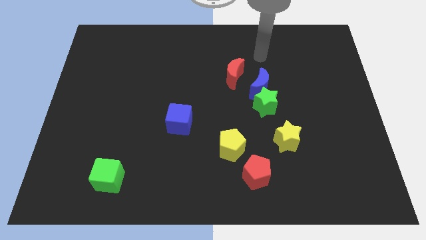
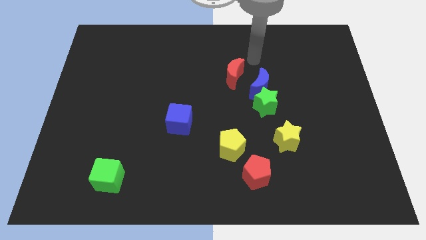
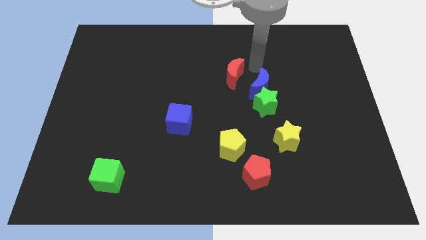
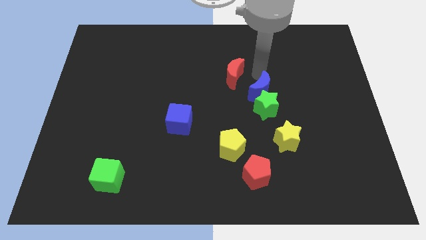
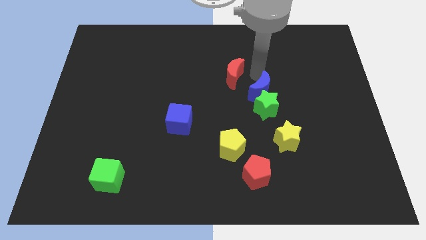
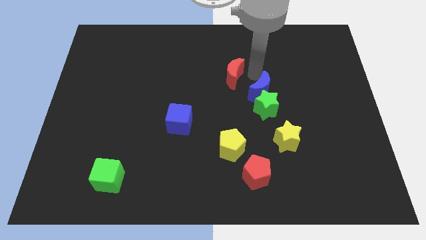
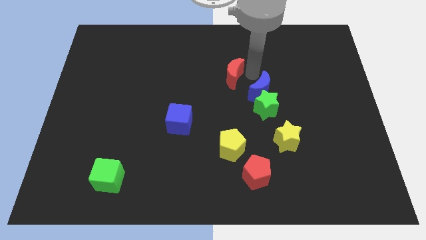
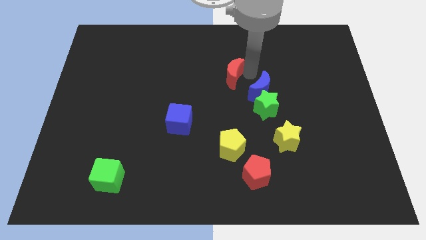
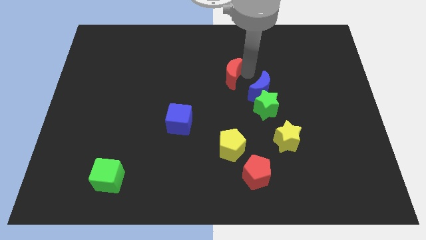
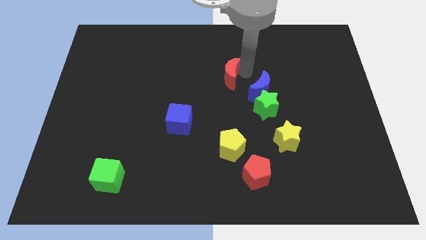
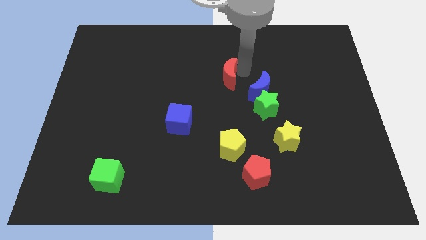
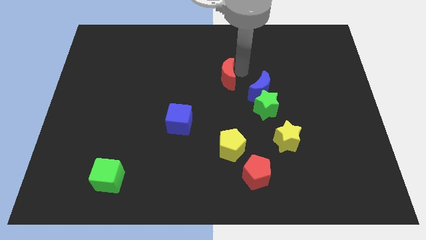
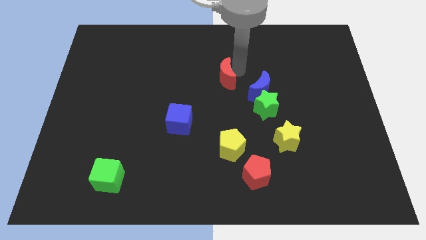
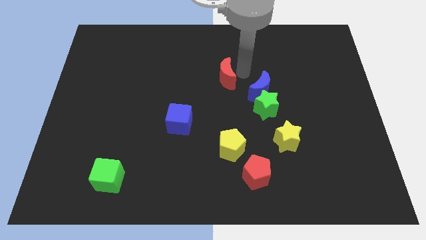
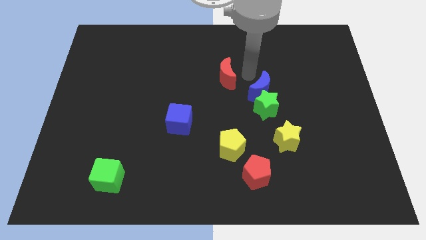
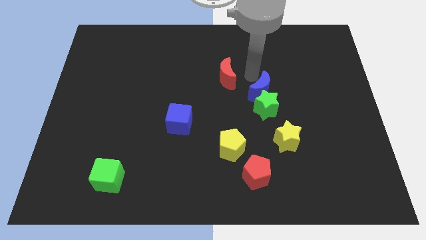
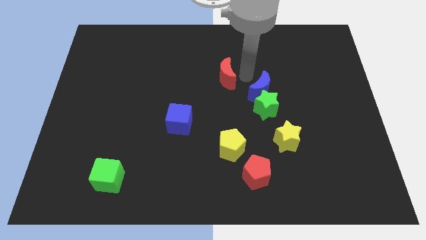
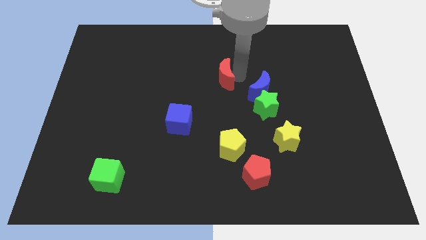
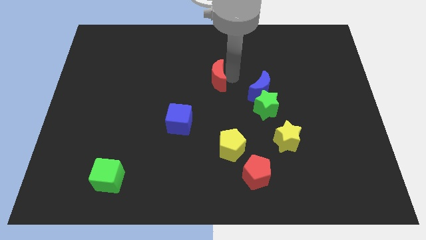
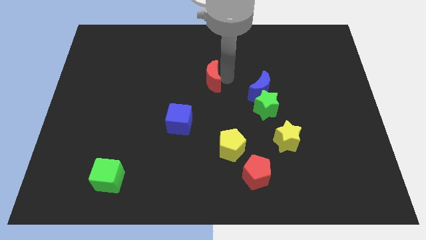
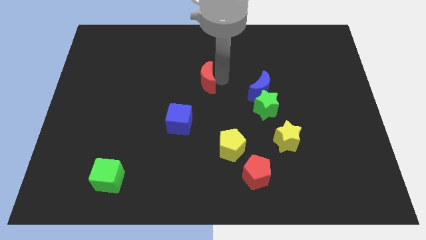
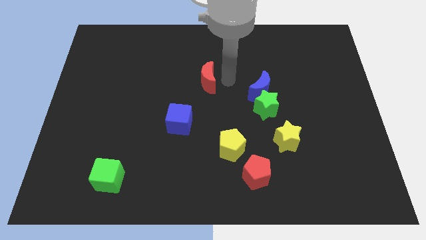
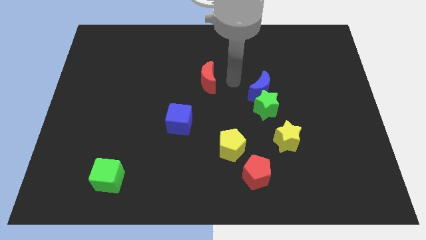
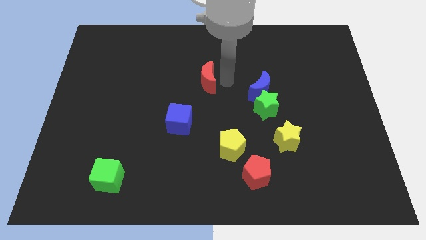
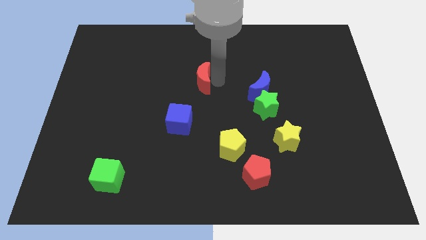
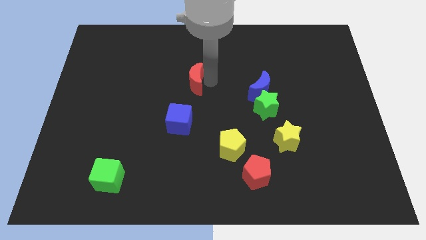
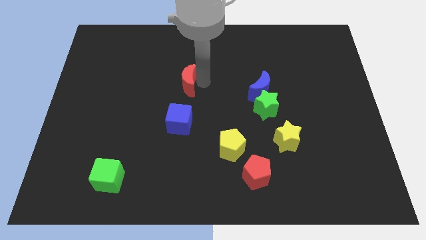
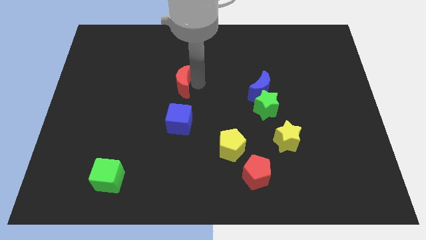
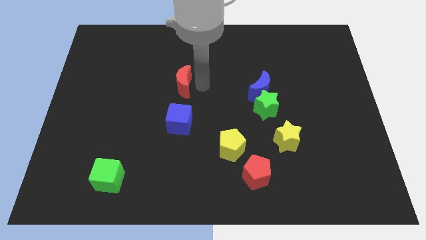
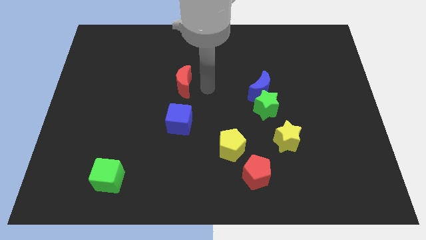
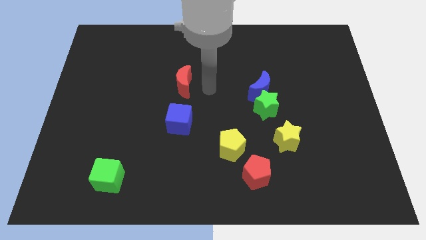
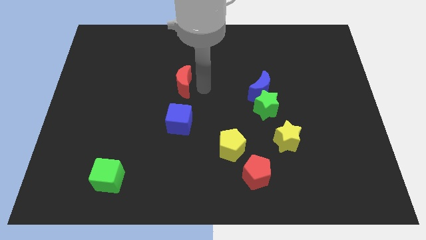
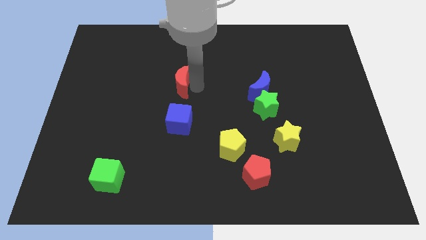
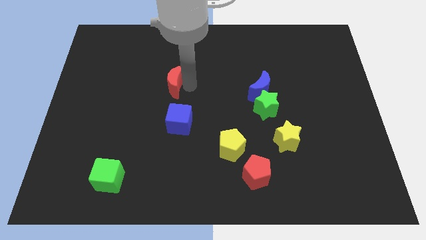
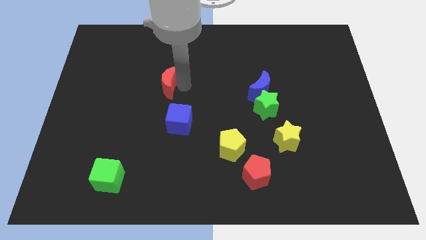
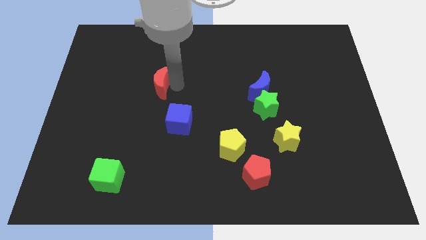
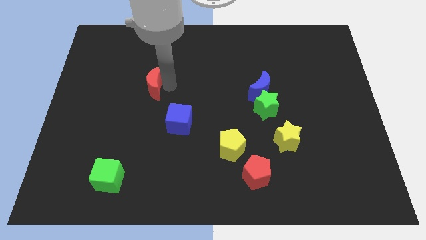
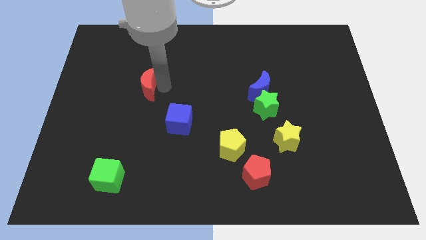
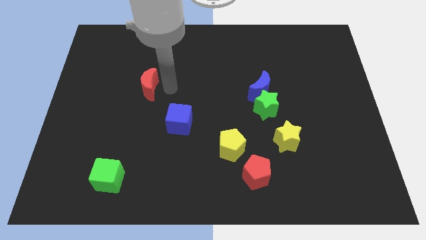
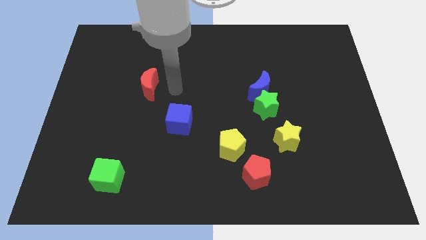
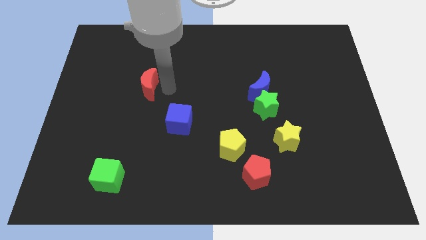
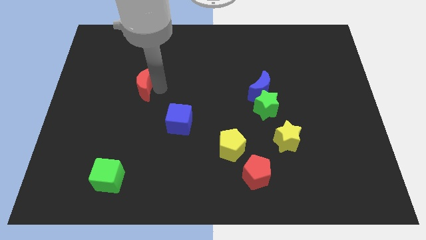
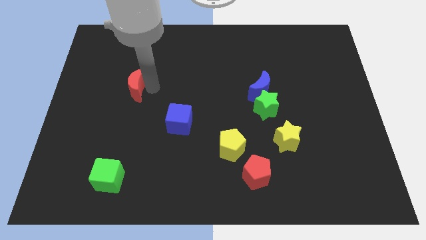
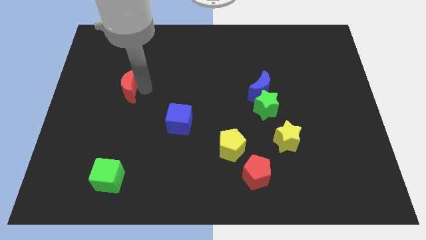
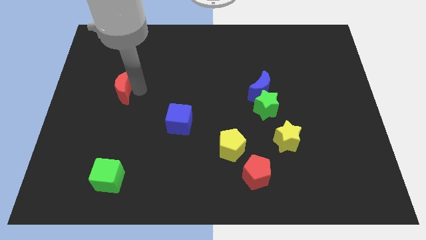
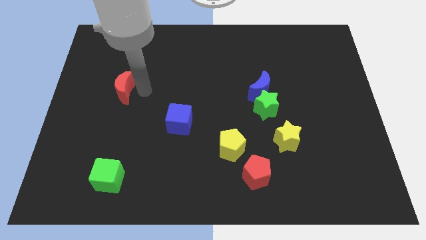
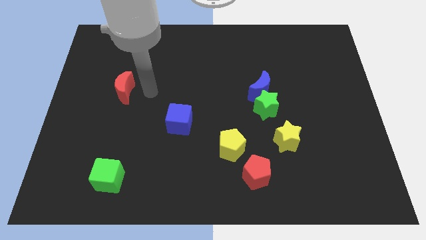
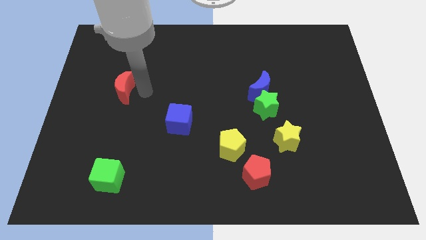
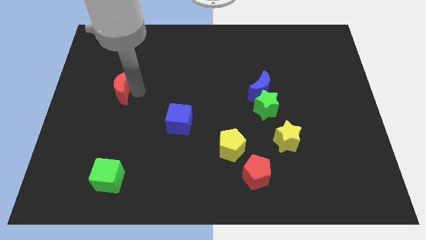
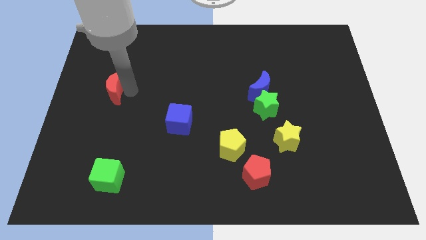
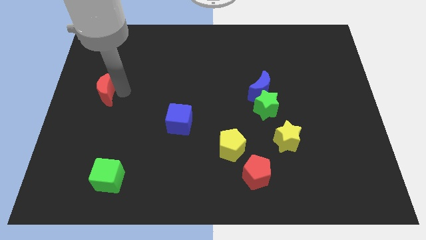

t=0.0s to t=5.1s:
slide the red moon to the left side of the board

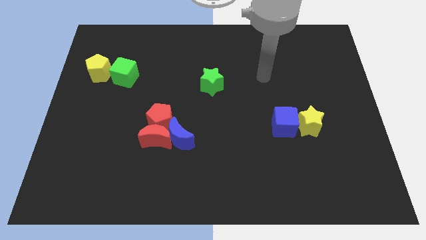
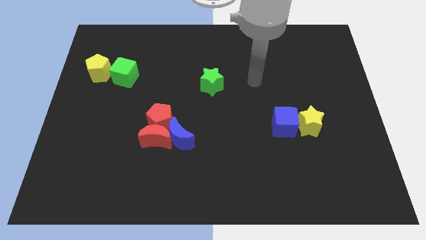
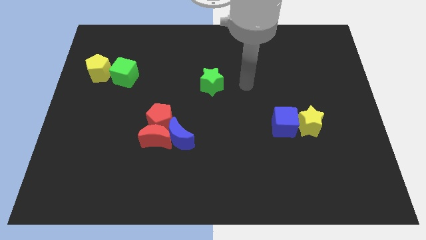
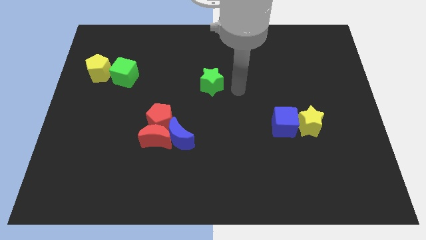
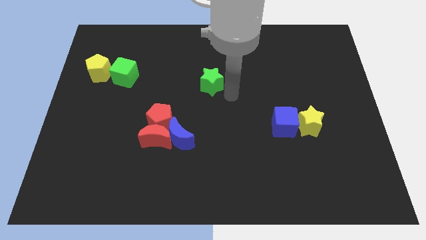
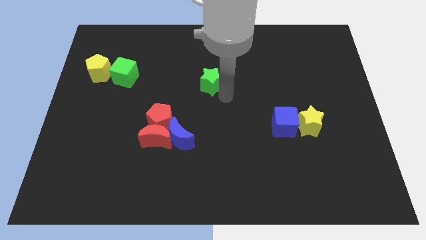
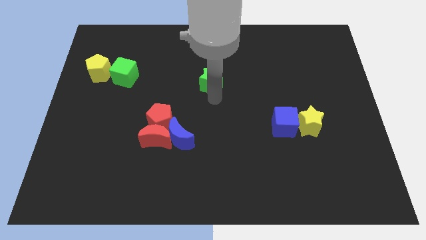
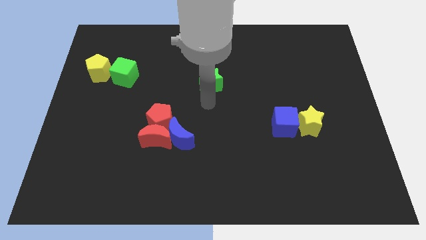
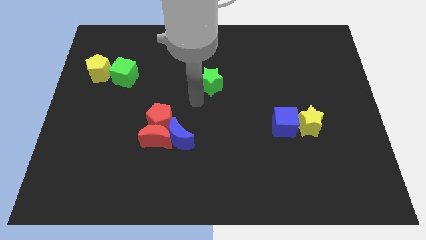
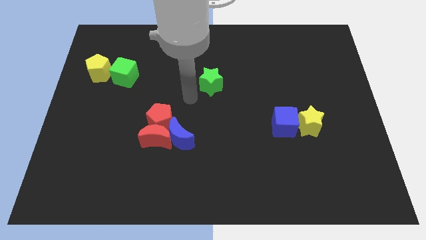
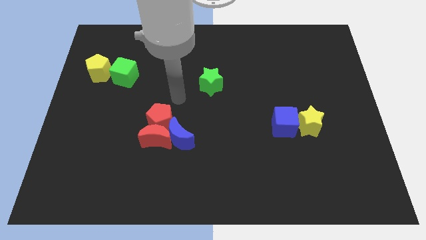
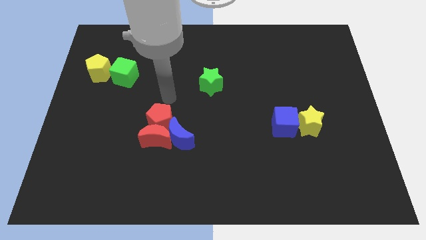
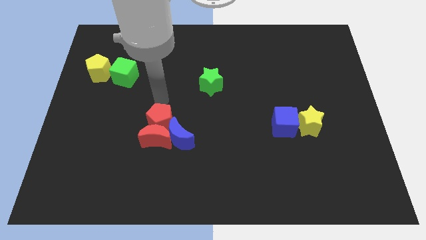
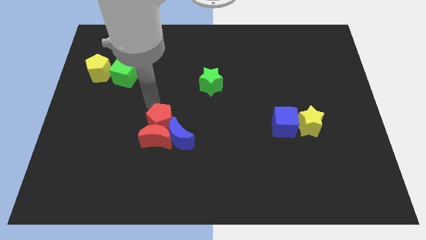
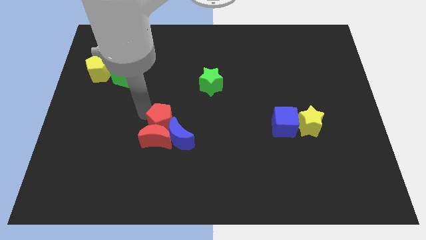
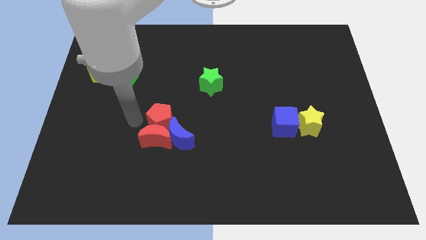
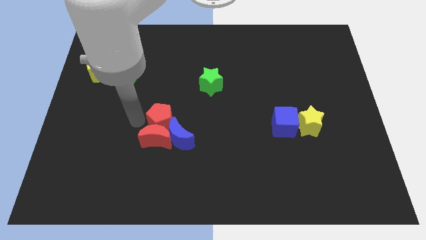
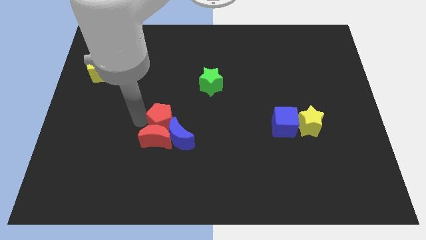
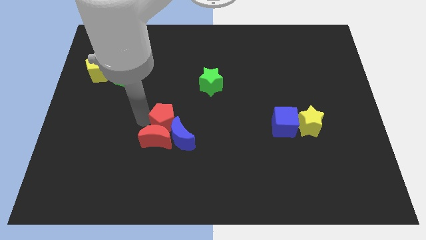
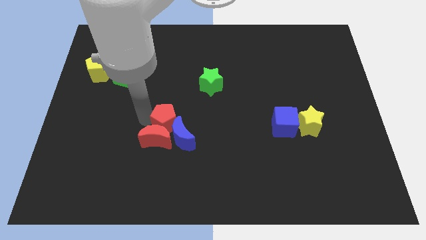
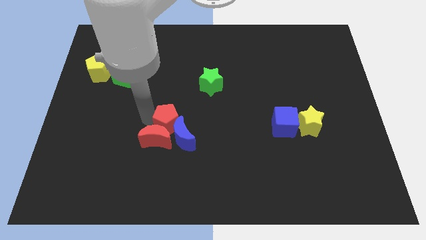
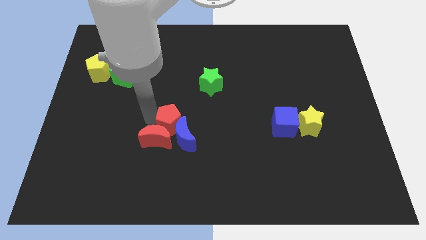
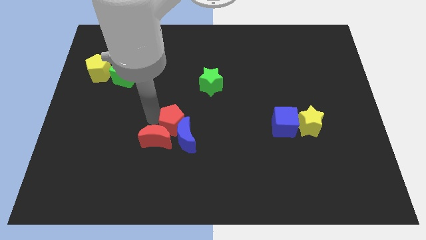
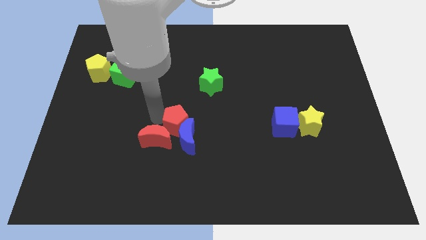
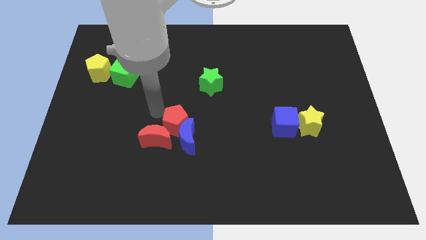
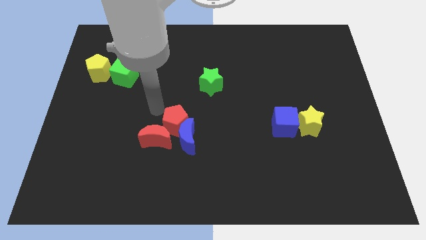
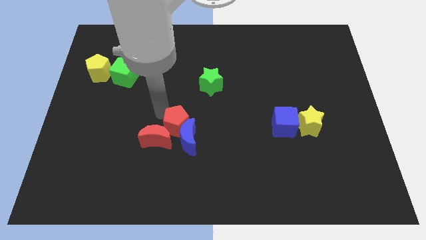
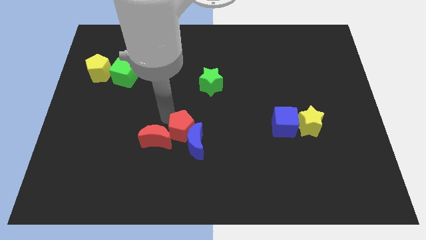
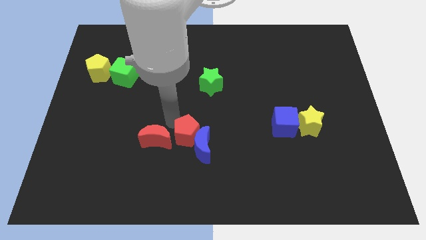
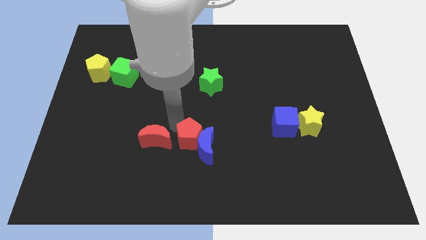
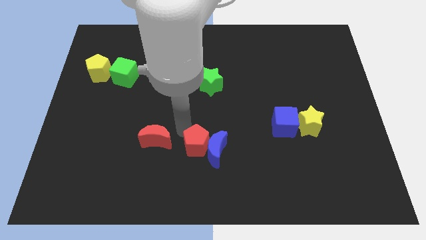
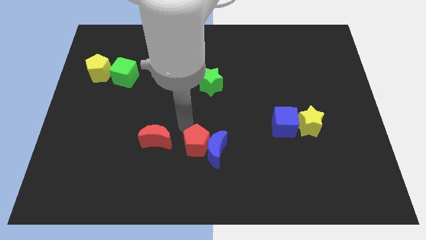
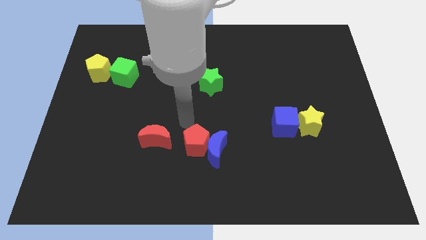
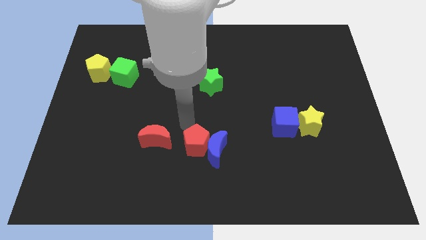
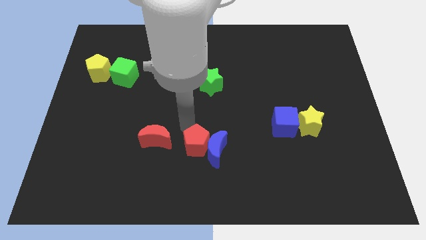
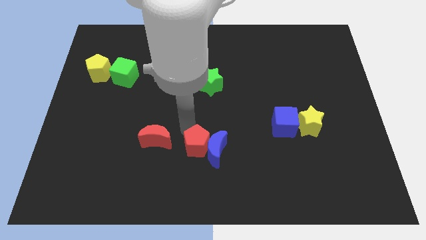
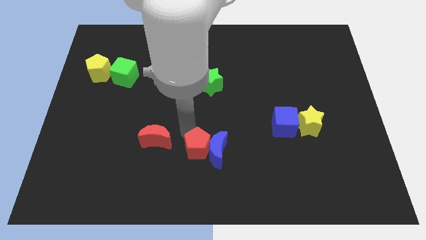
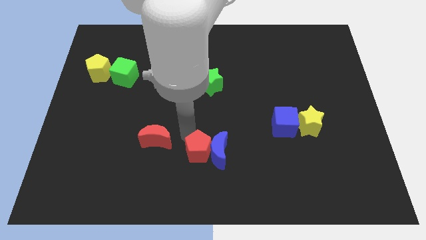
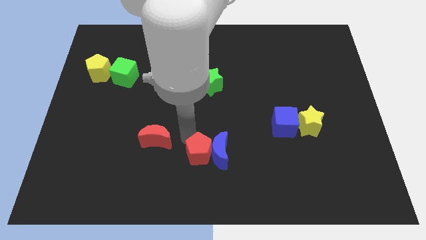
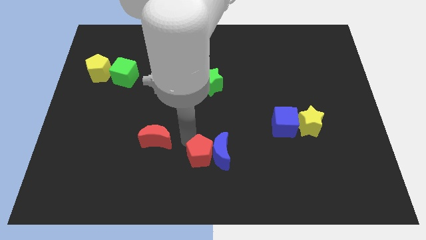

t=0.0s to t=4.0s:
put the red pentagon to the bottom side
